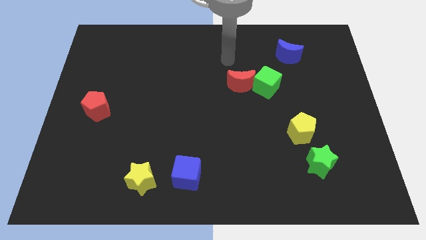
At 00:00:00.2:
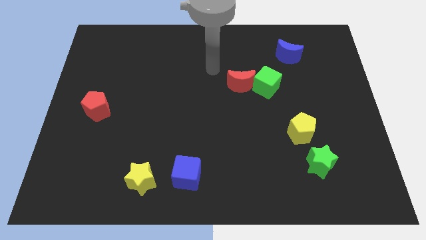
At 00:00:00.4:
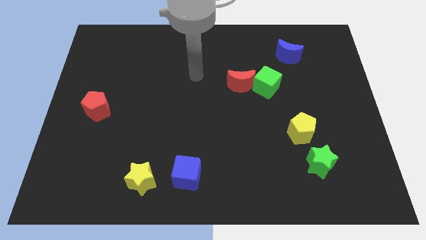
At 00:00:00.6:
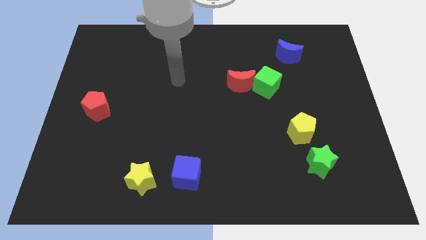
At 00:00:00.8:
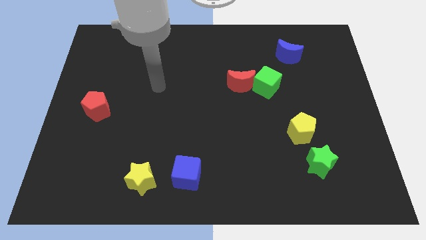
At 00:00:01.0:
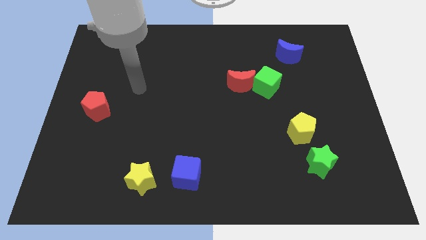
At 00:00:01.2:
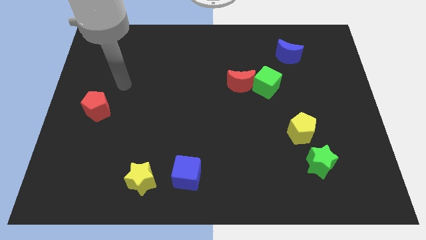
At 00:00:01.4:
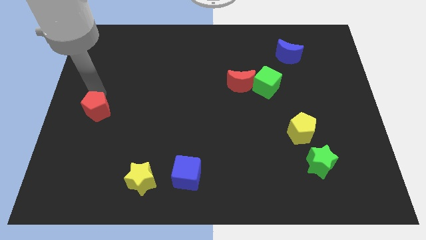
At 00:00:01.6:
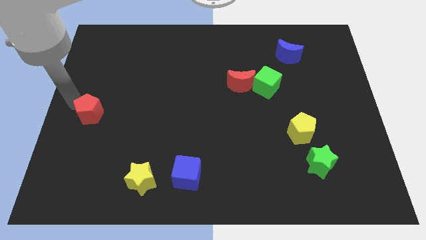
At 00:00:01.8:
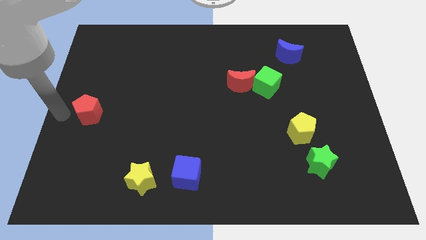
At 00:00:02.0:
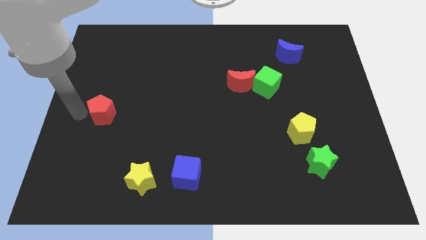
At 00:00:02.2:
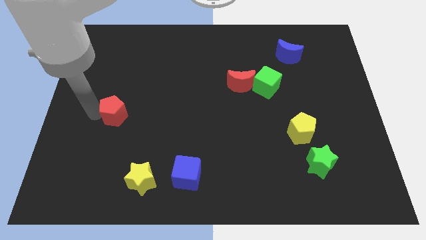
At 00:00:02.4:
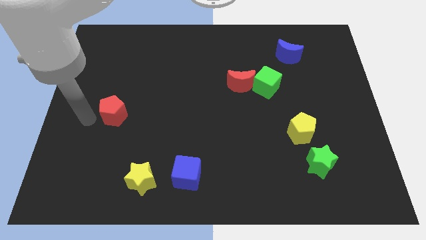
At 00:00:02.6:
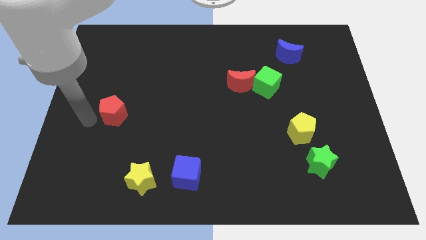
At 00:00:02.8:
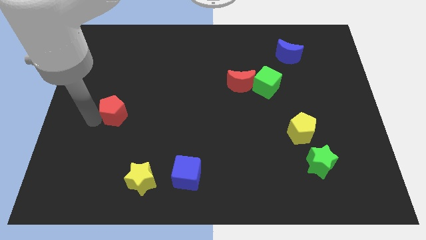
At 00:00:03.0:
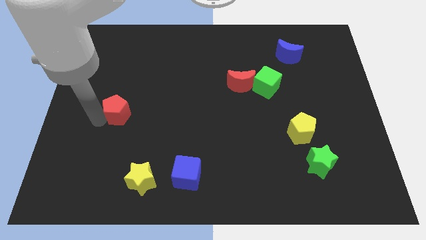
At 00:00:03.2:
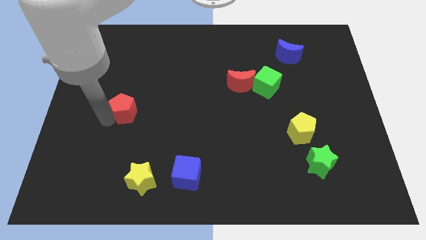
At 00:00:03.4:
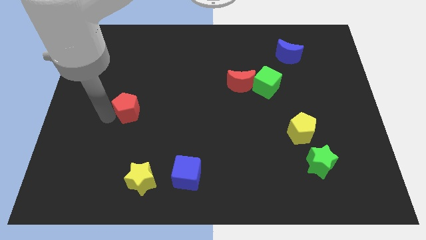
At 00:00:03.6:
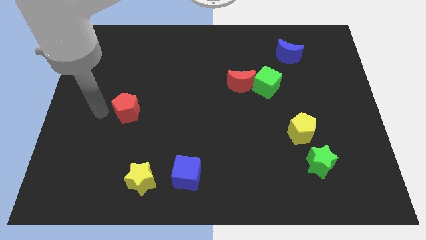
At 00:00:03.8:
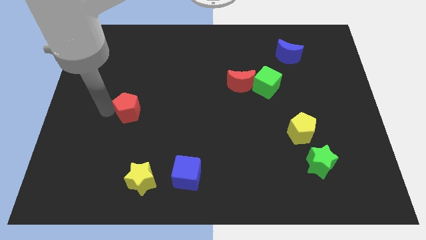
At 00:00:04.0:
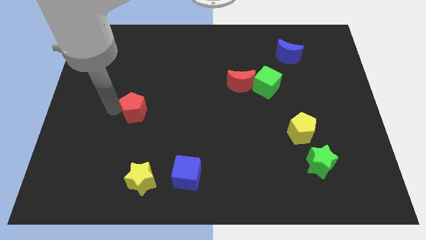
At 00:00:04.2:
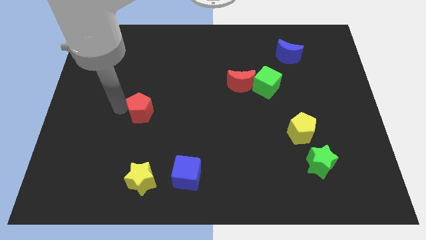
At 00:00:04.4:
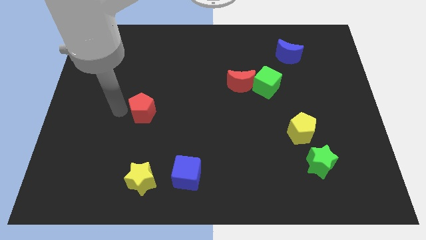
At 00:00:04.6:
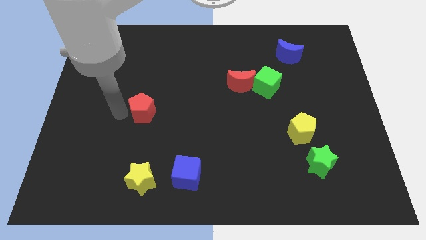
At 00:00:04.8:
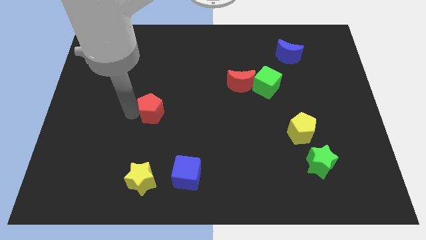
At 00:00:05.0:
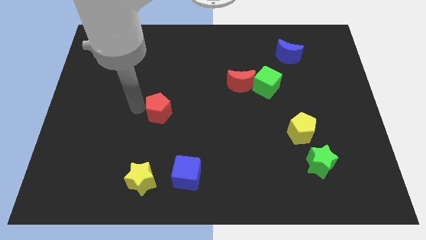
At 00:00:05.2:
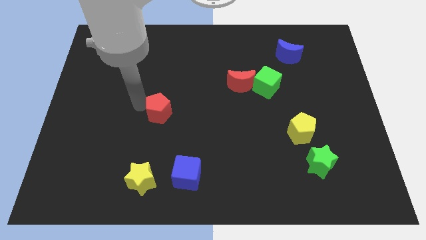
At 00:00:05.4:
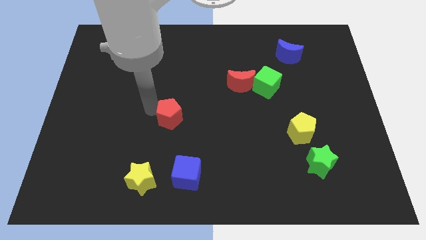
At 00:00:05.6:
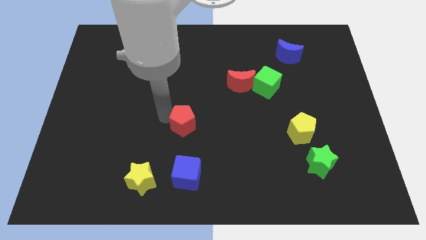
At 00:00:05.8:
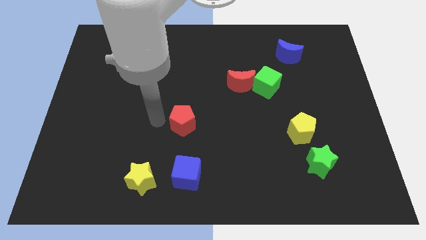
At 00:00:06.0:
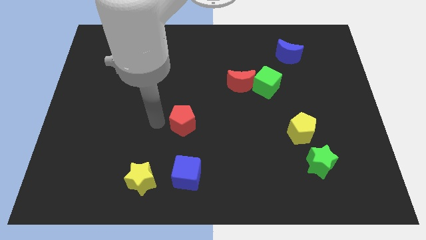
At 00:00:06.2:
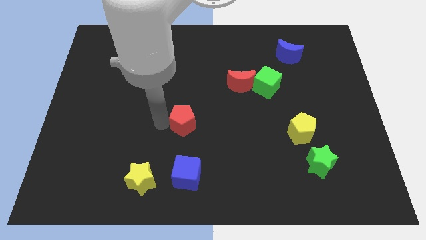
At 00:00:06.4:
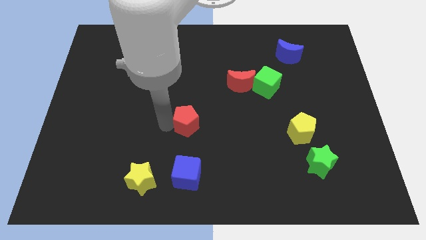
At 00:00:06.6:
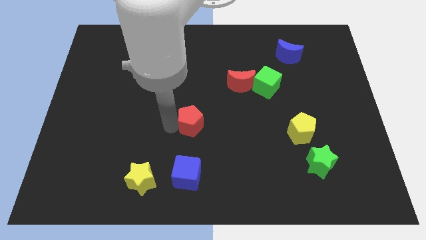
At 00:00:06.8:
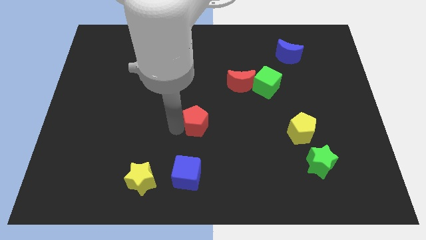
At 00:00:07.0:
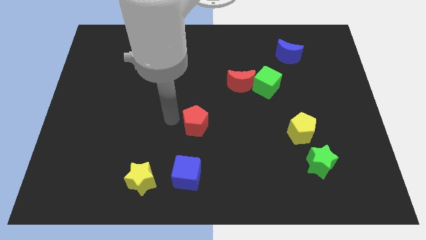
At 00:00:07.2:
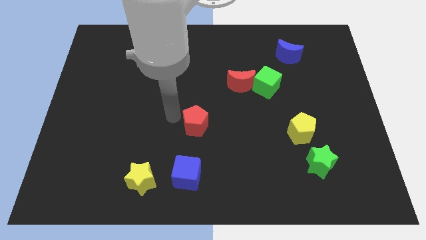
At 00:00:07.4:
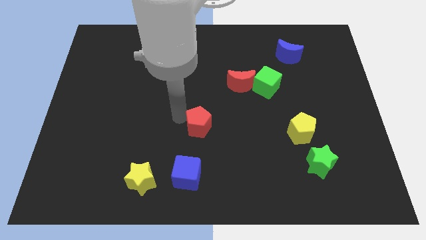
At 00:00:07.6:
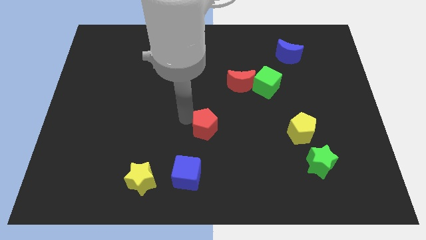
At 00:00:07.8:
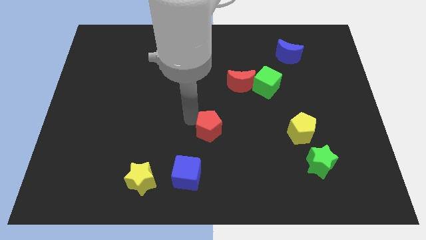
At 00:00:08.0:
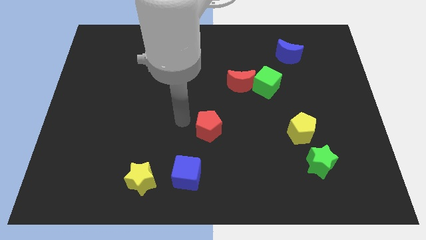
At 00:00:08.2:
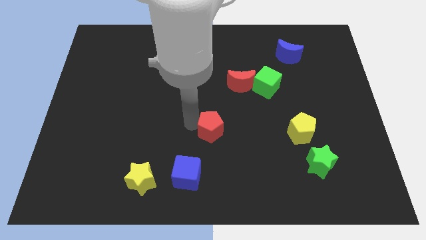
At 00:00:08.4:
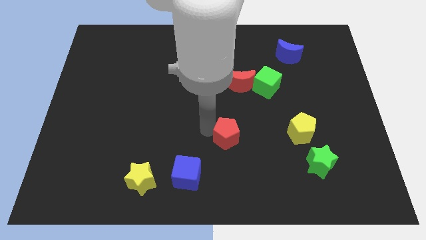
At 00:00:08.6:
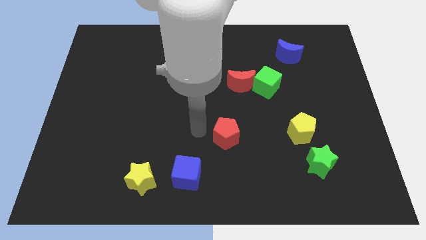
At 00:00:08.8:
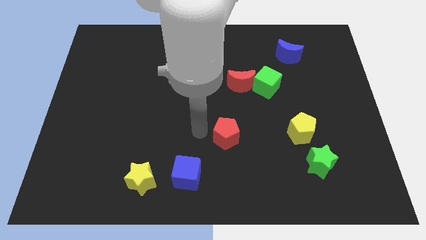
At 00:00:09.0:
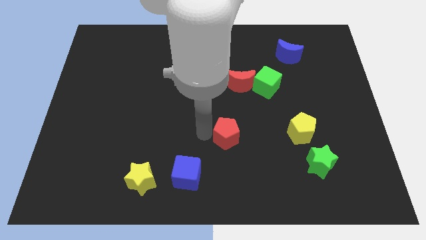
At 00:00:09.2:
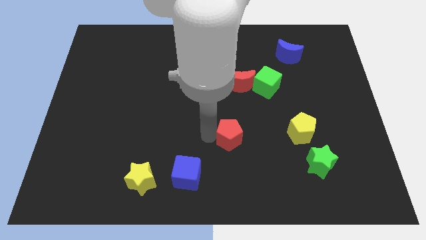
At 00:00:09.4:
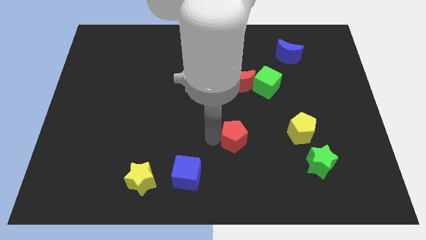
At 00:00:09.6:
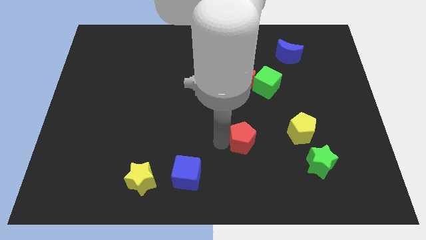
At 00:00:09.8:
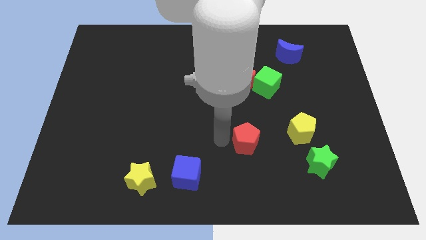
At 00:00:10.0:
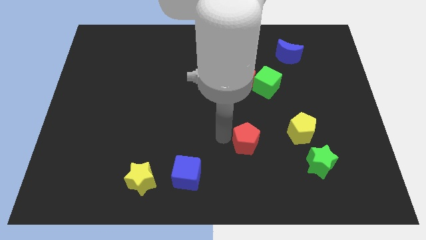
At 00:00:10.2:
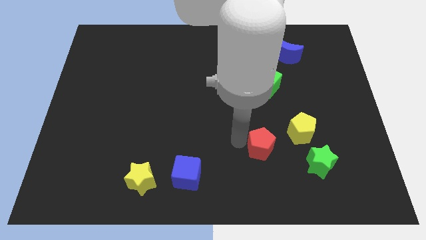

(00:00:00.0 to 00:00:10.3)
move the red pentagon to the bottom left side of the yellow pentagon

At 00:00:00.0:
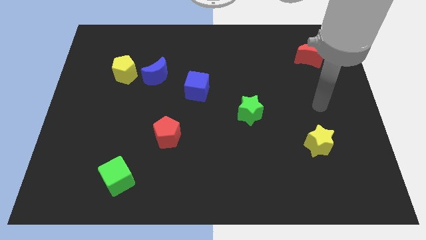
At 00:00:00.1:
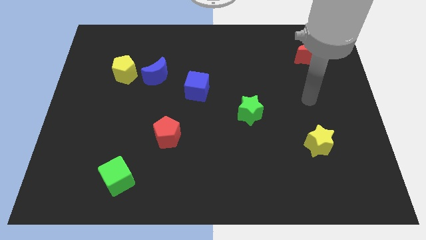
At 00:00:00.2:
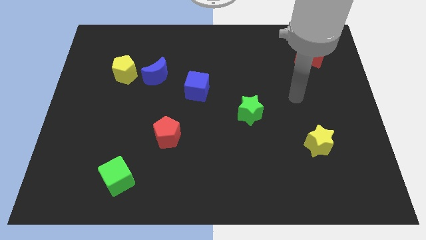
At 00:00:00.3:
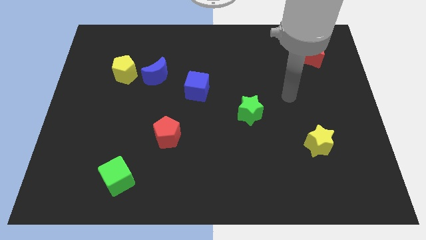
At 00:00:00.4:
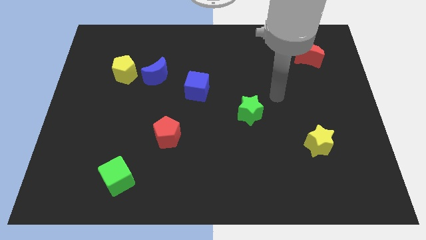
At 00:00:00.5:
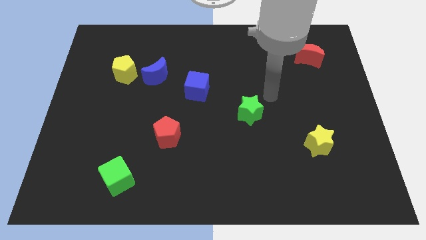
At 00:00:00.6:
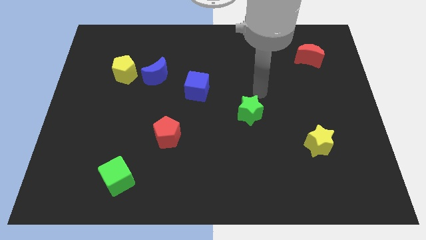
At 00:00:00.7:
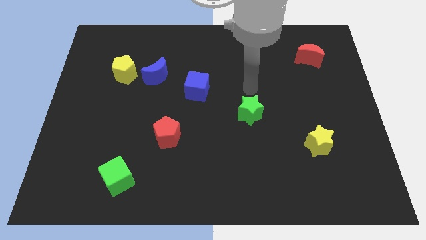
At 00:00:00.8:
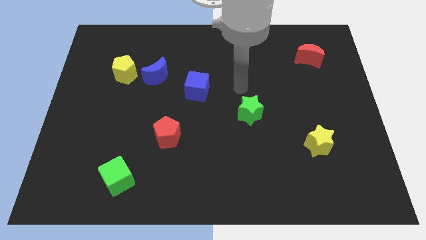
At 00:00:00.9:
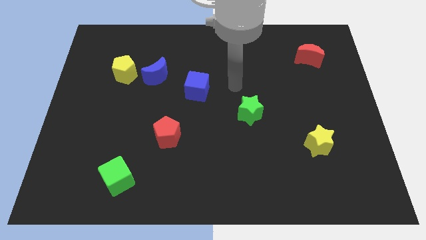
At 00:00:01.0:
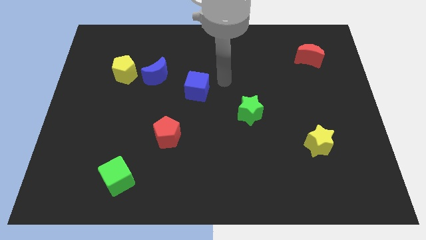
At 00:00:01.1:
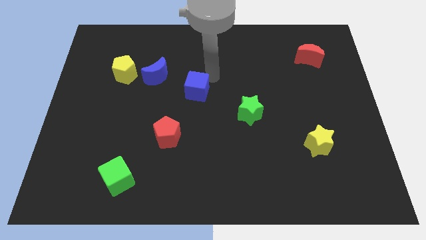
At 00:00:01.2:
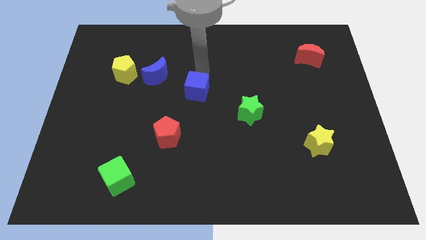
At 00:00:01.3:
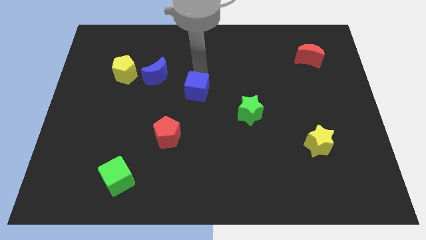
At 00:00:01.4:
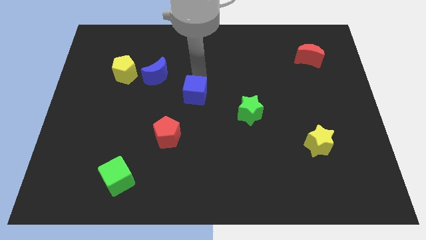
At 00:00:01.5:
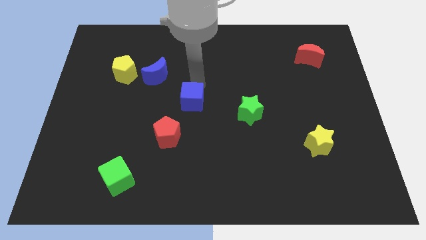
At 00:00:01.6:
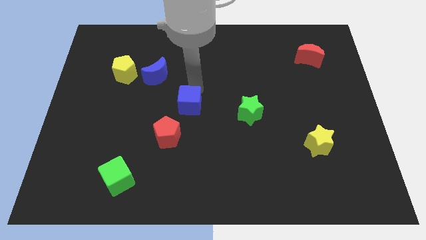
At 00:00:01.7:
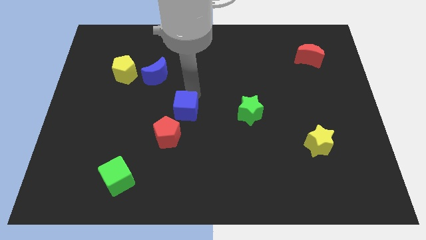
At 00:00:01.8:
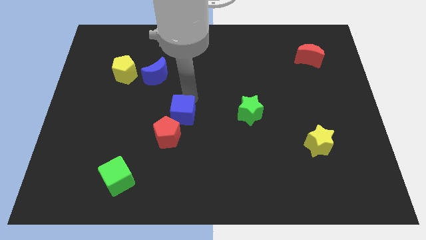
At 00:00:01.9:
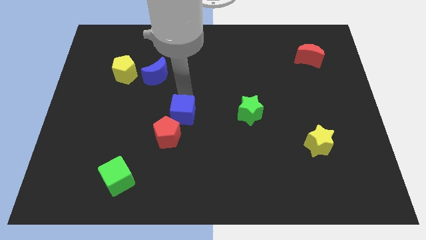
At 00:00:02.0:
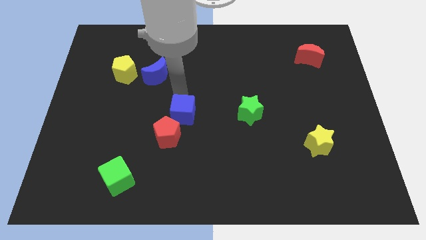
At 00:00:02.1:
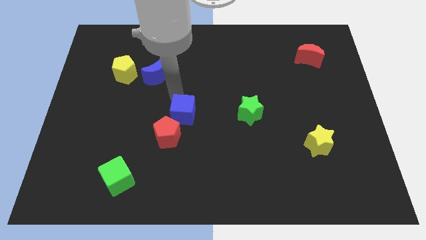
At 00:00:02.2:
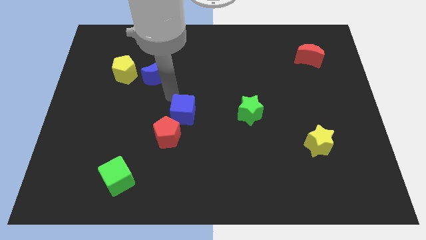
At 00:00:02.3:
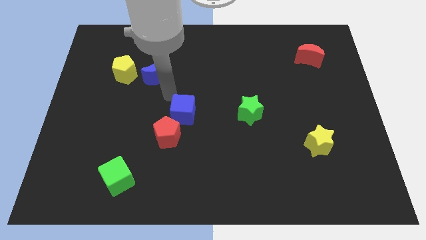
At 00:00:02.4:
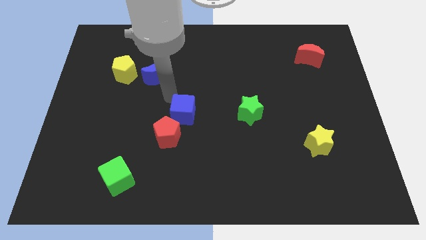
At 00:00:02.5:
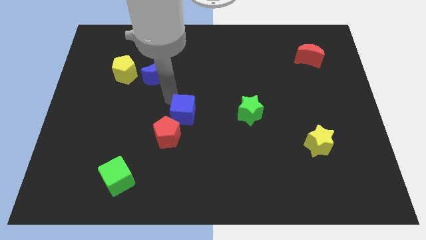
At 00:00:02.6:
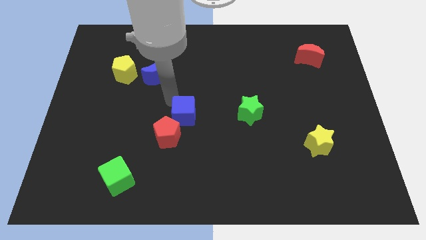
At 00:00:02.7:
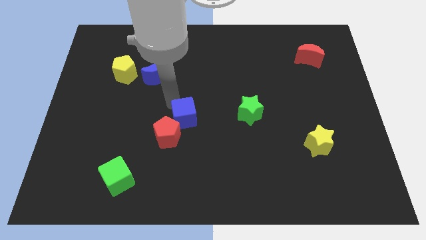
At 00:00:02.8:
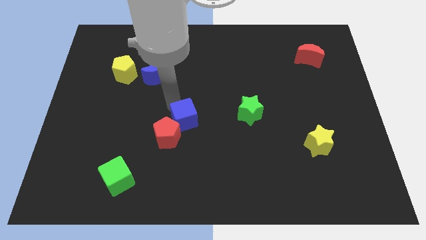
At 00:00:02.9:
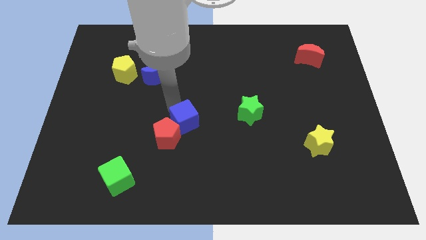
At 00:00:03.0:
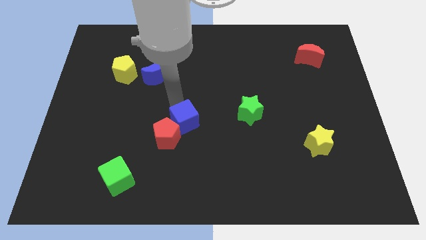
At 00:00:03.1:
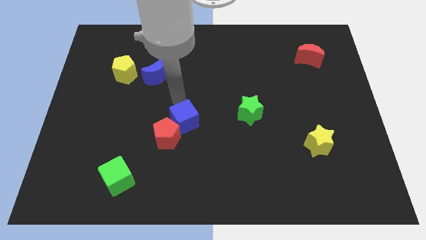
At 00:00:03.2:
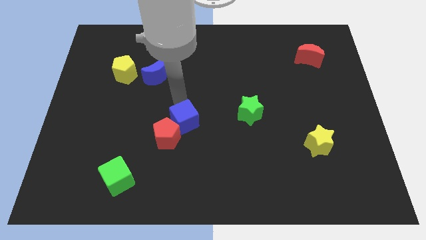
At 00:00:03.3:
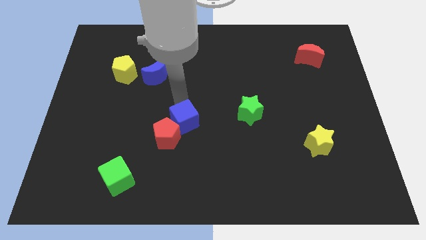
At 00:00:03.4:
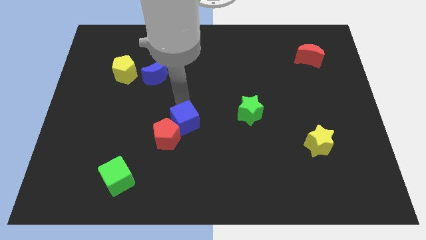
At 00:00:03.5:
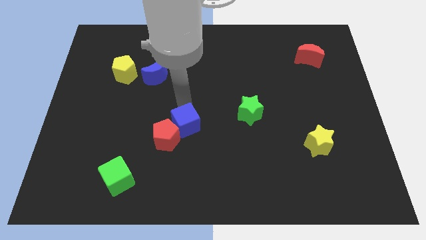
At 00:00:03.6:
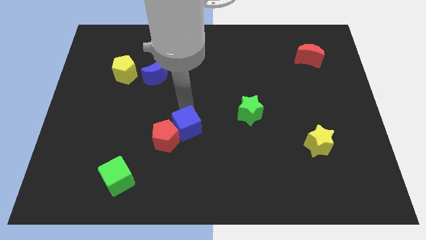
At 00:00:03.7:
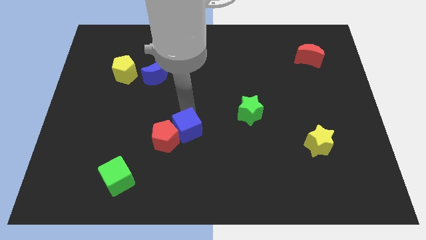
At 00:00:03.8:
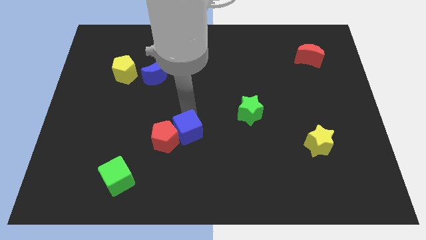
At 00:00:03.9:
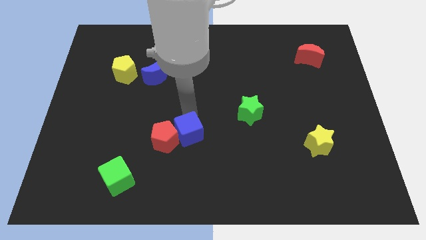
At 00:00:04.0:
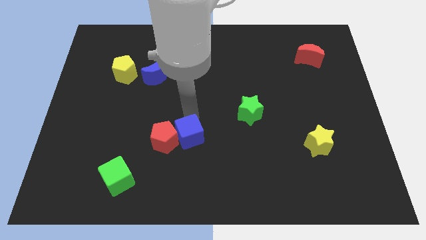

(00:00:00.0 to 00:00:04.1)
put the blue cube to the bottom right side of the red pentagon
